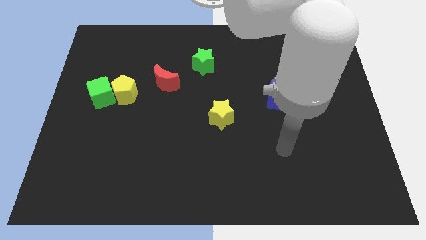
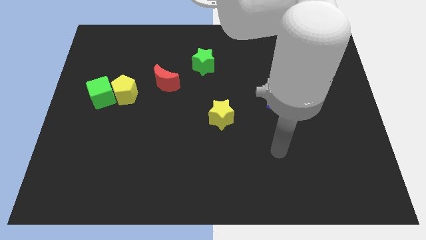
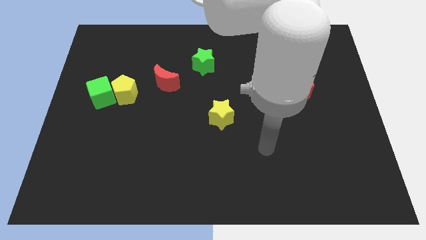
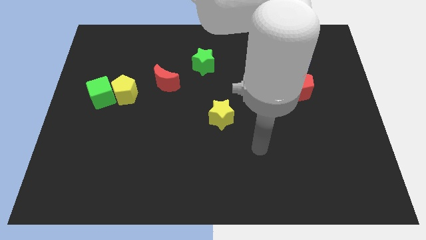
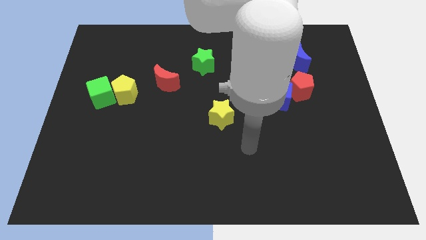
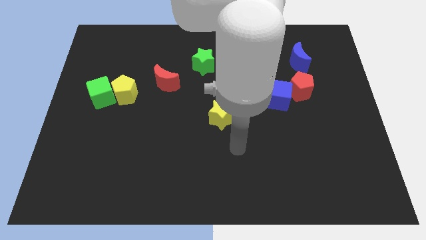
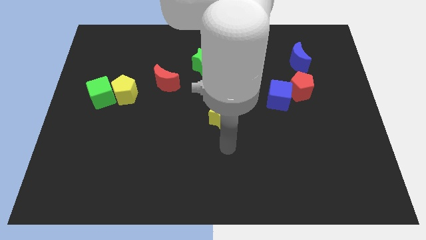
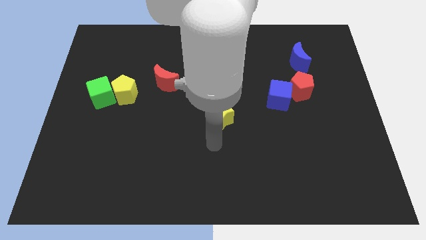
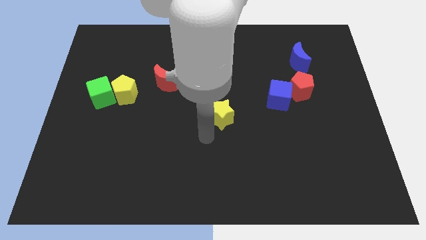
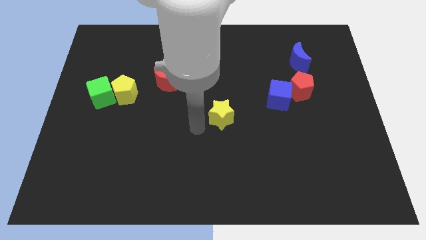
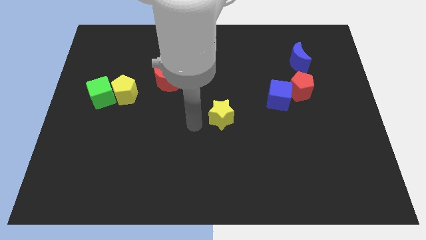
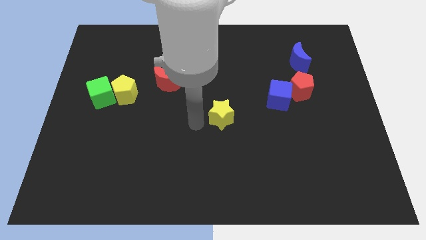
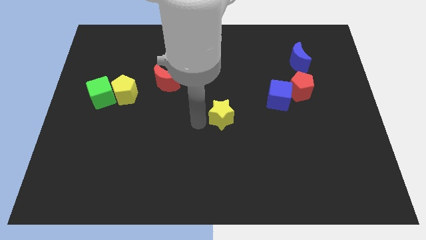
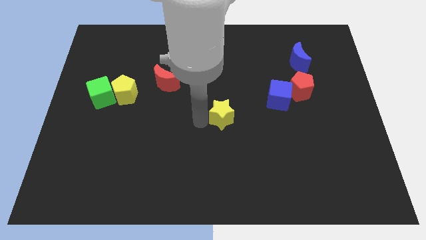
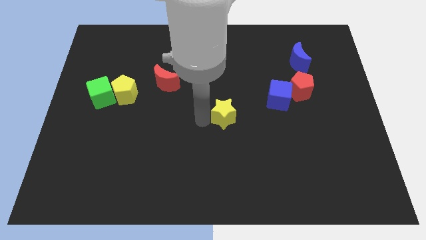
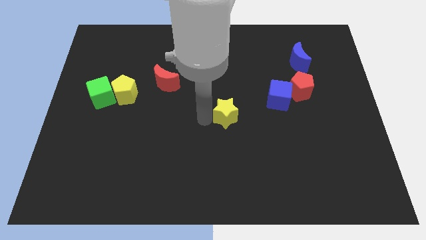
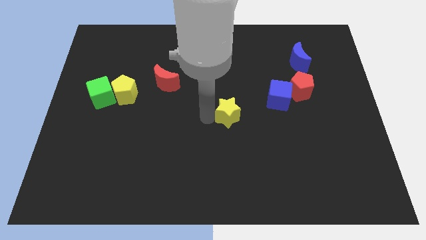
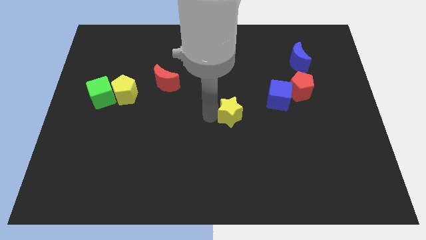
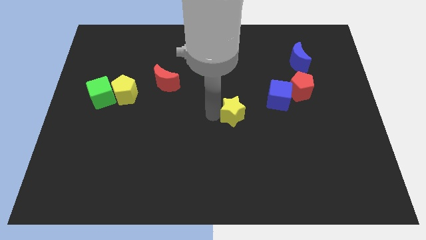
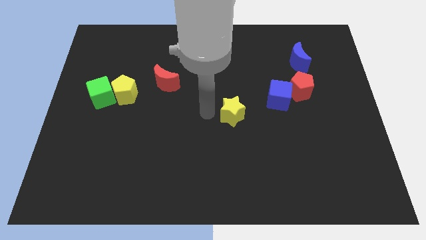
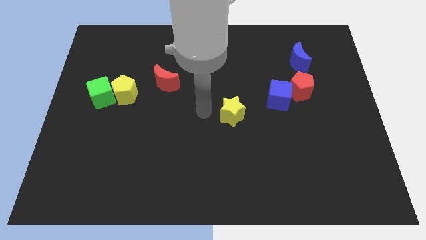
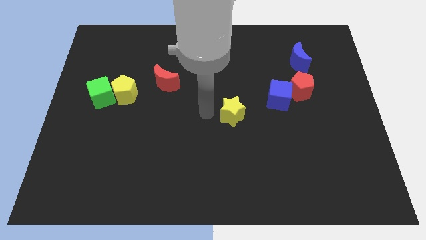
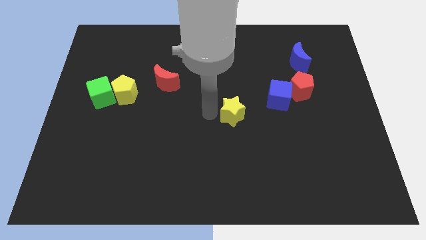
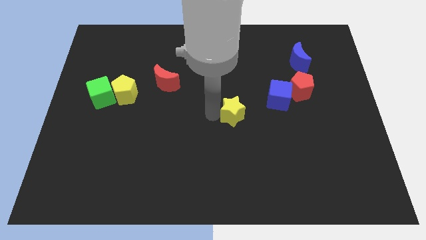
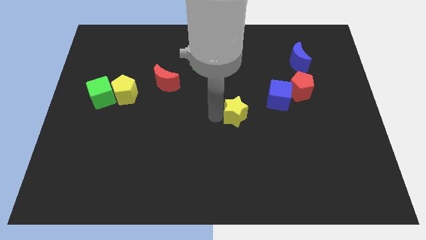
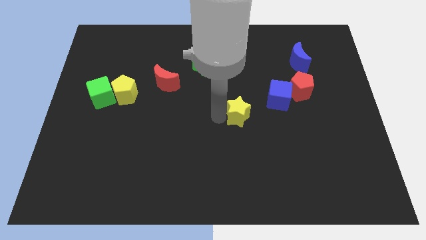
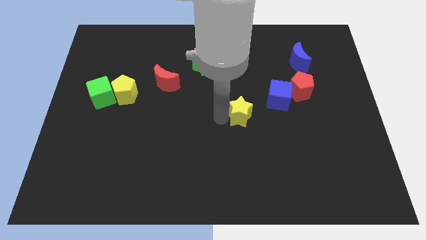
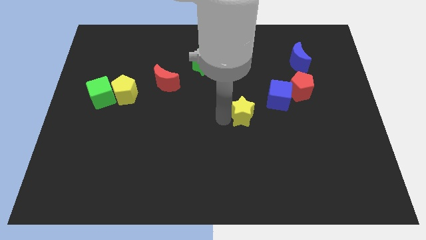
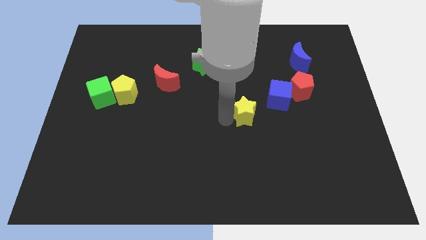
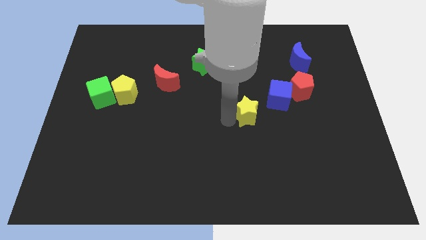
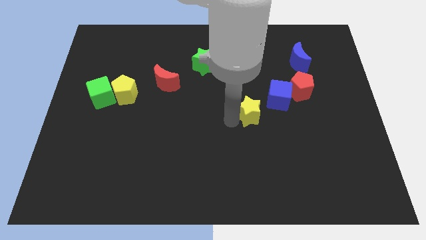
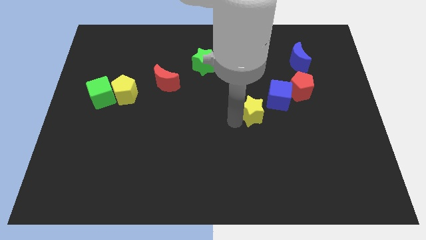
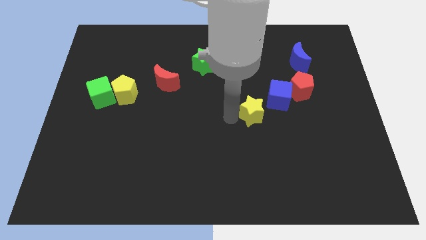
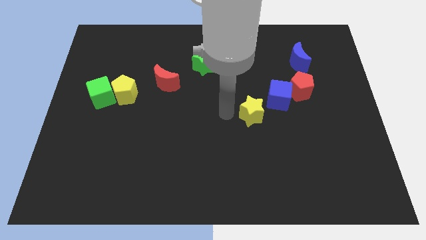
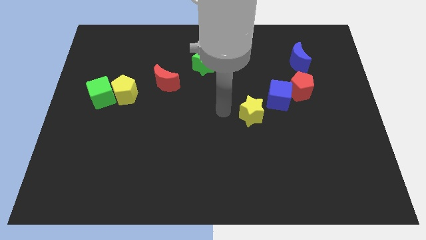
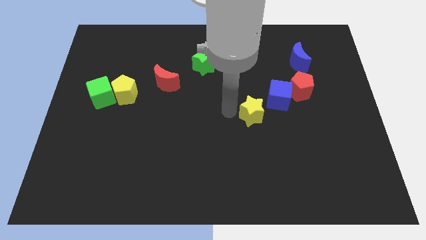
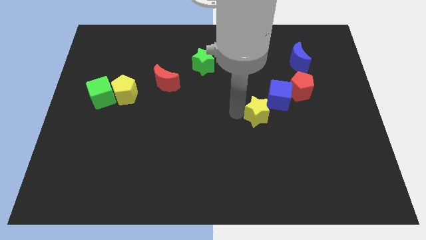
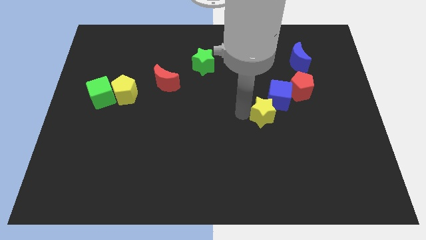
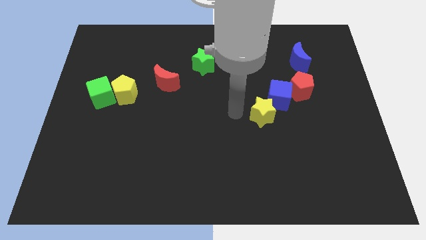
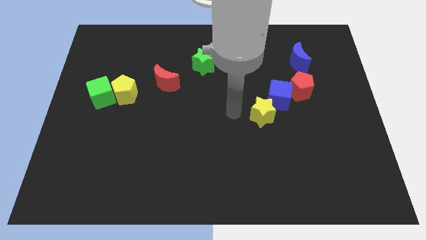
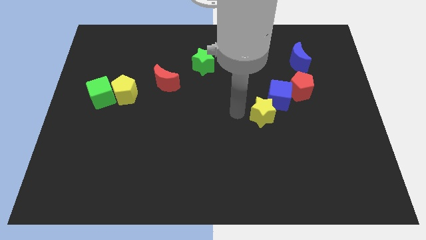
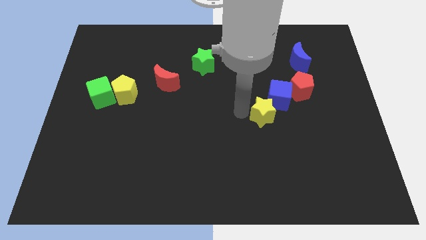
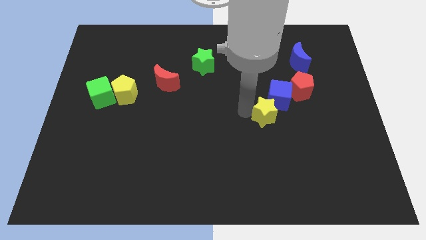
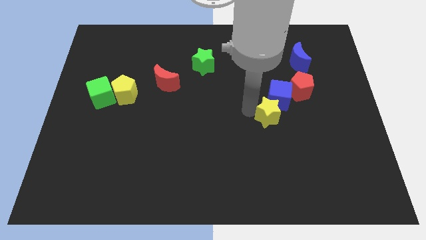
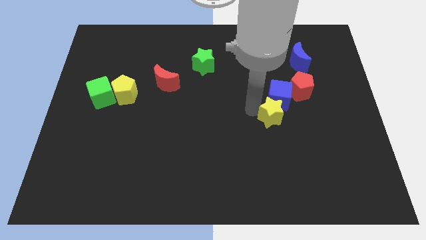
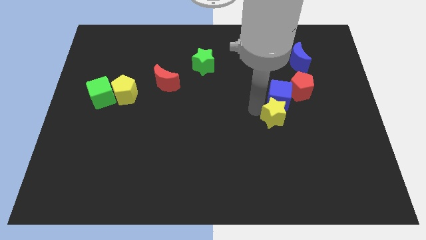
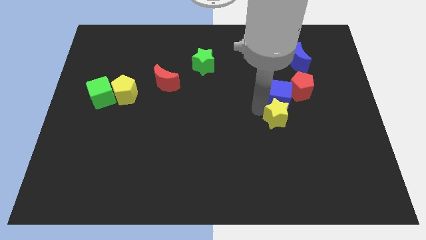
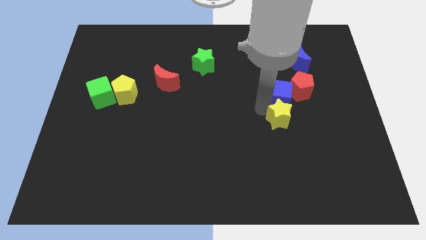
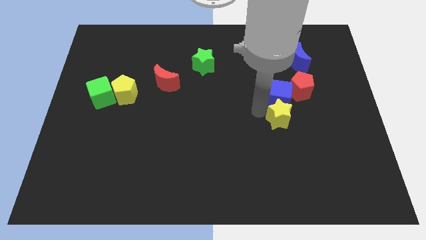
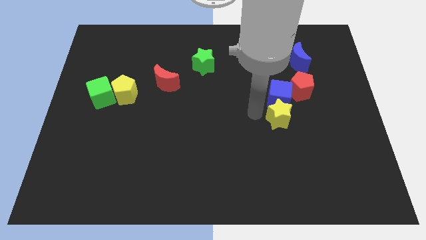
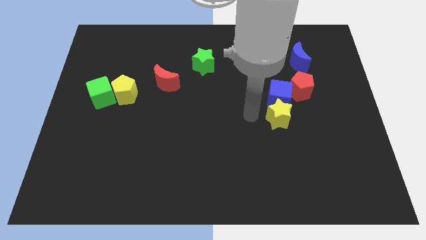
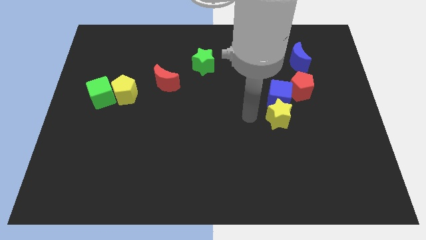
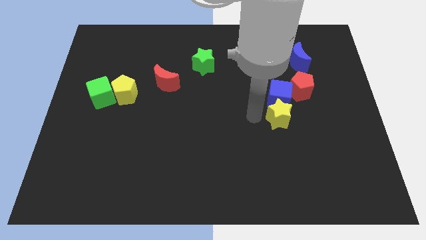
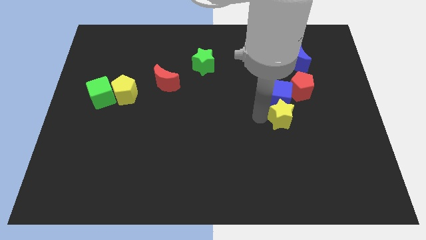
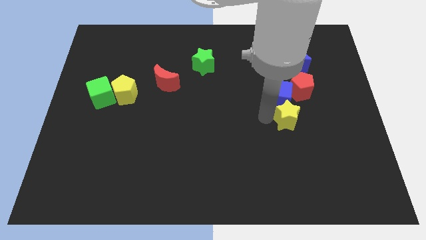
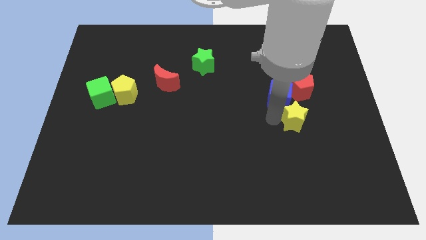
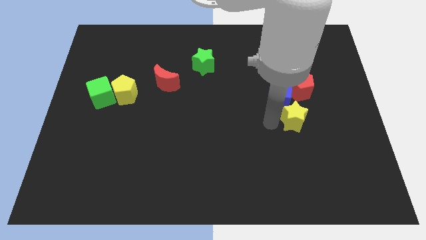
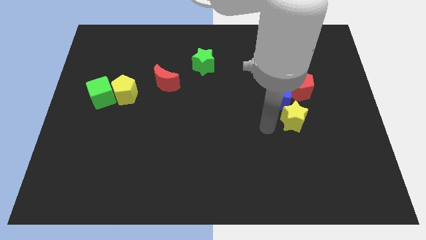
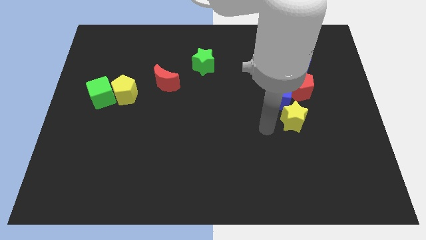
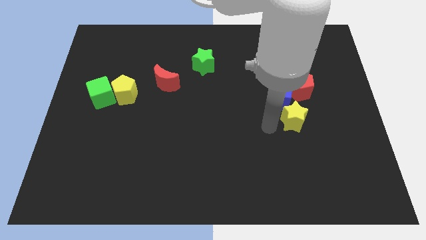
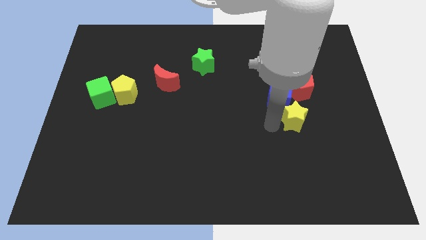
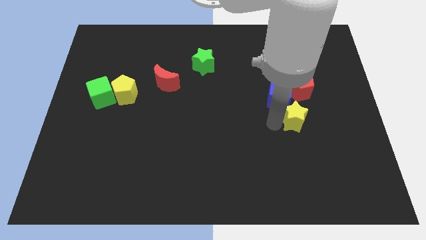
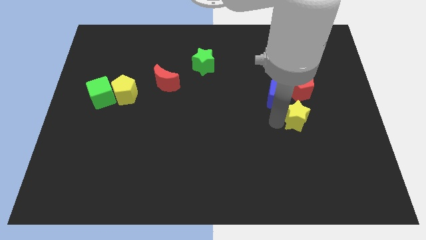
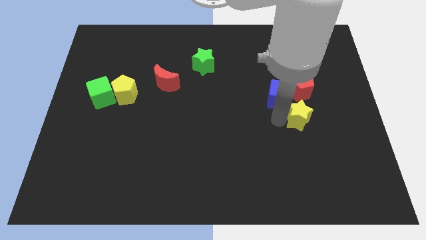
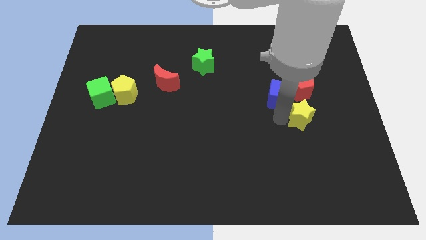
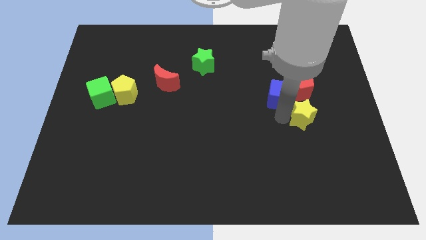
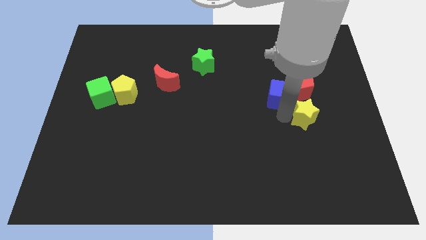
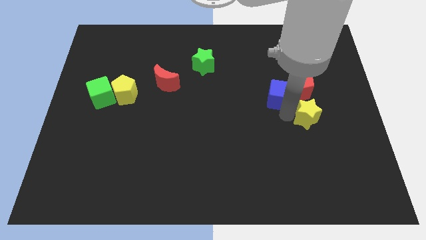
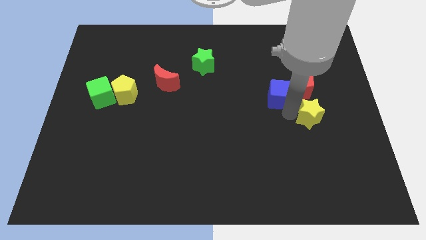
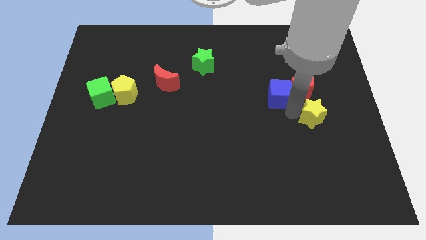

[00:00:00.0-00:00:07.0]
slide the yellow star to the bottom right of the red pentagon

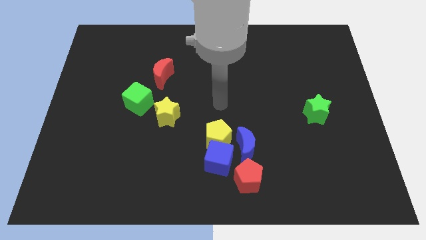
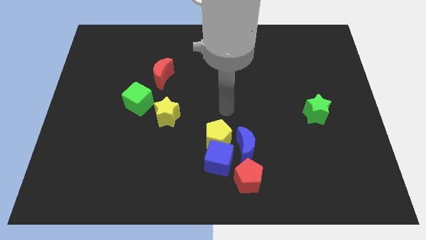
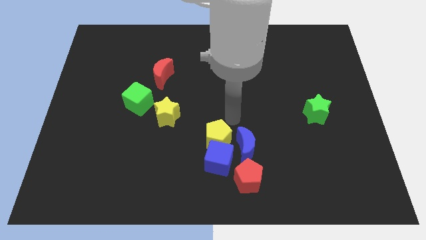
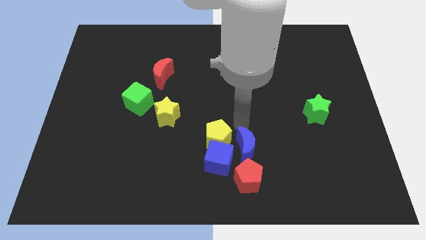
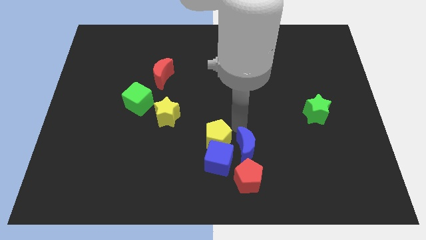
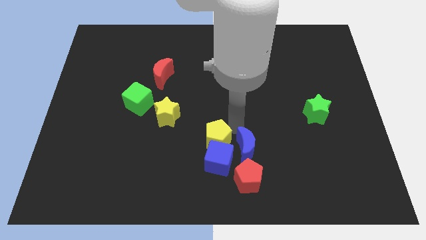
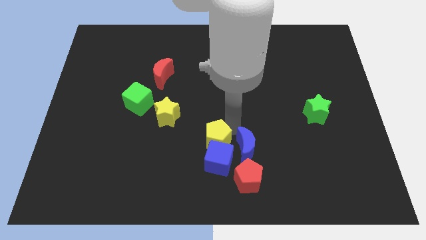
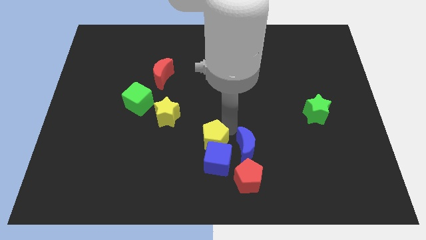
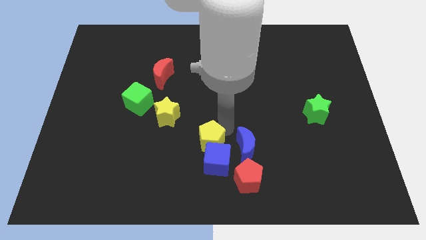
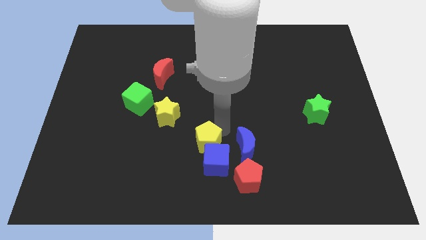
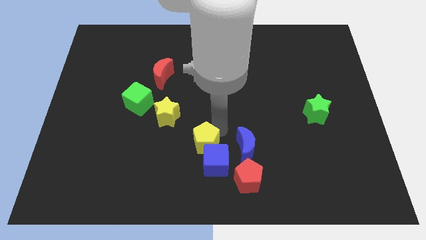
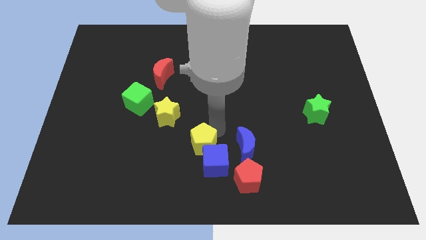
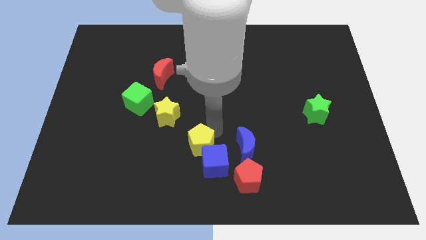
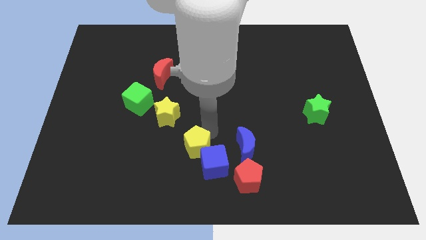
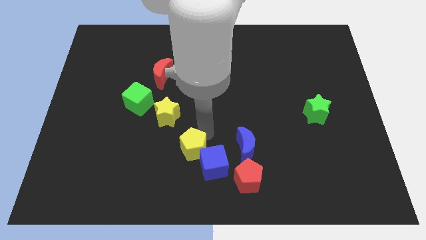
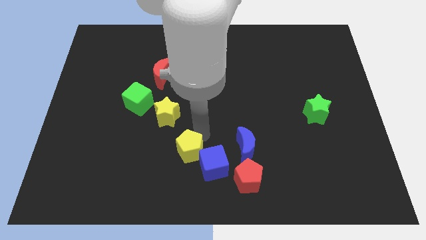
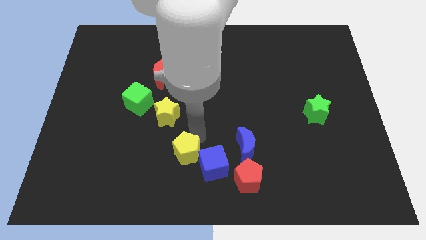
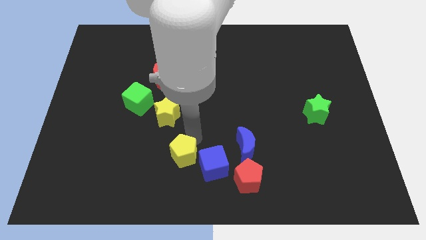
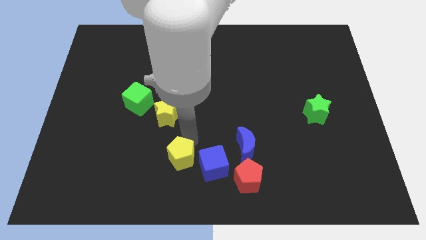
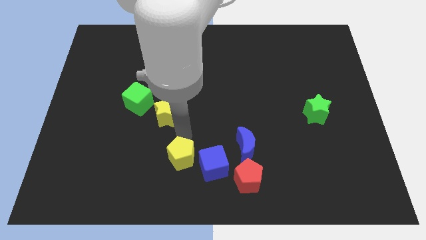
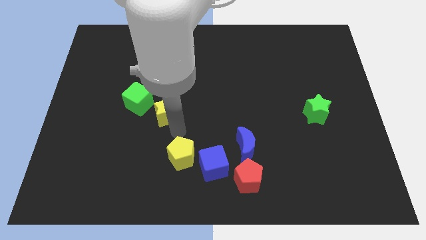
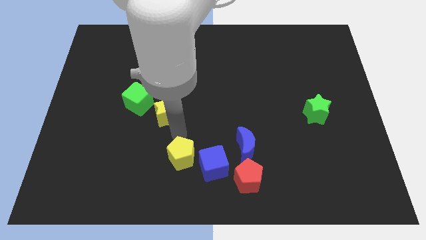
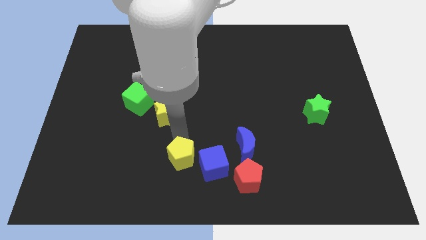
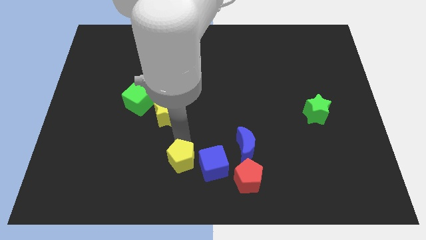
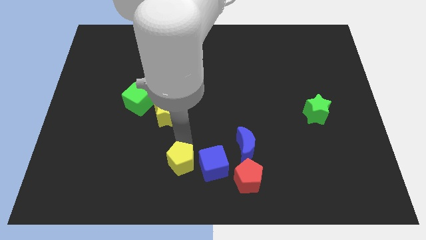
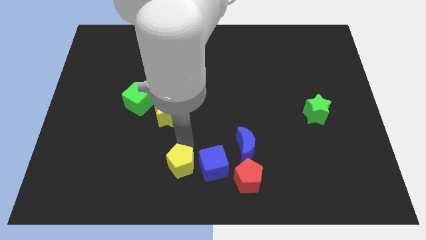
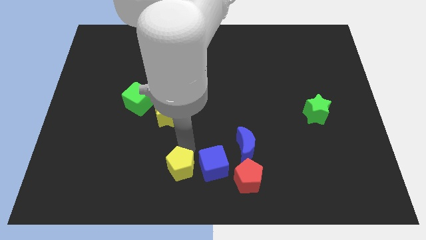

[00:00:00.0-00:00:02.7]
slide the yellow pentagon diagonally down and to the left of the blue cube
